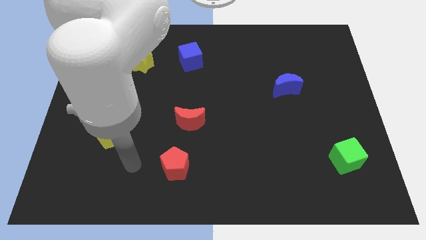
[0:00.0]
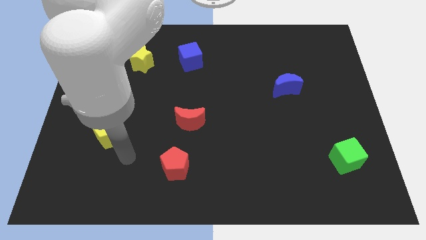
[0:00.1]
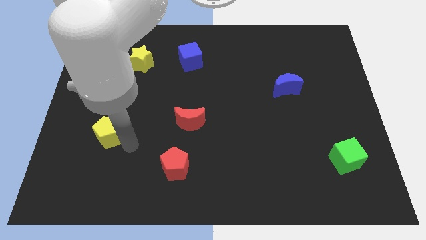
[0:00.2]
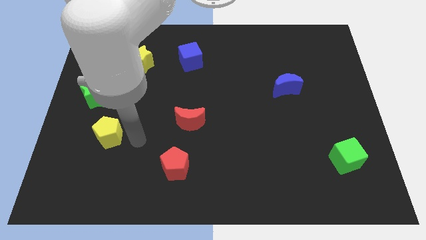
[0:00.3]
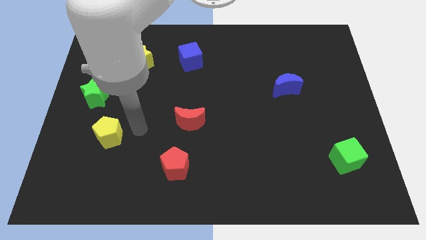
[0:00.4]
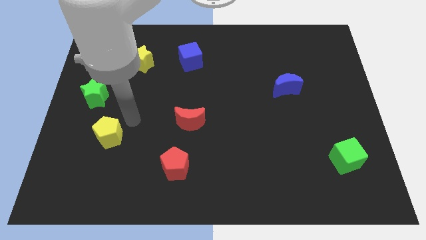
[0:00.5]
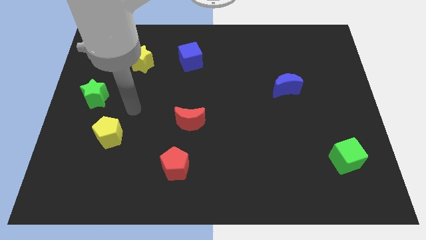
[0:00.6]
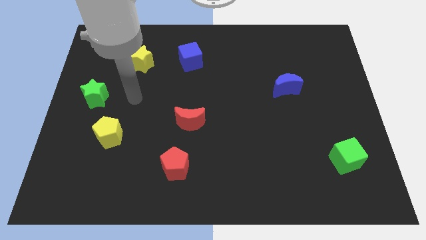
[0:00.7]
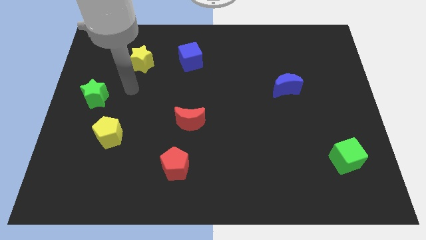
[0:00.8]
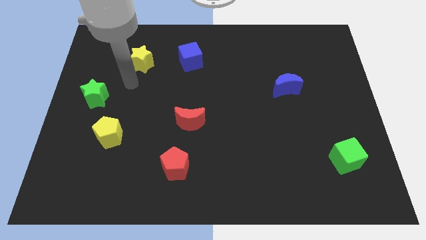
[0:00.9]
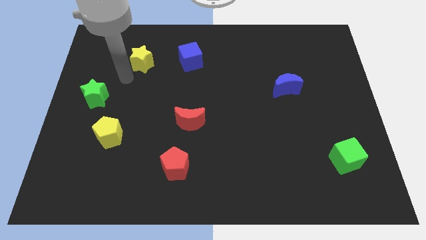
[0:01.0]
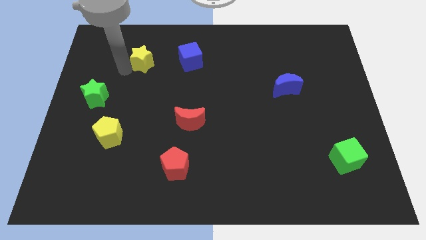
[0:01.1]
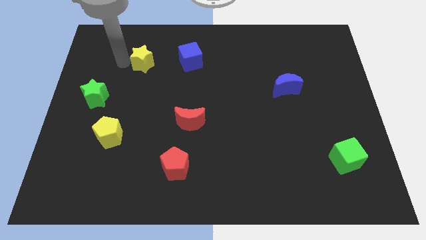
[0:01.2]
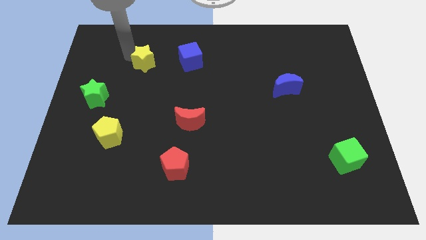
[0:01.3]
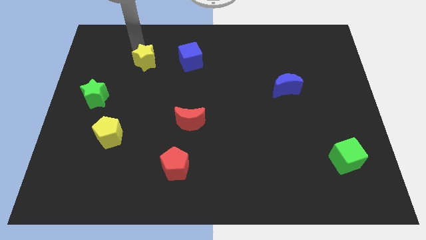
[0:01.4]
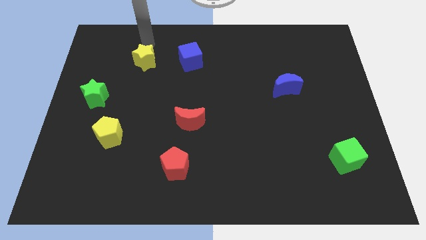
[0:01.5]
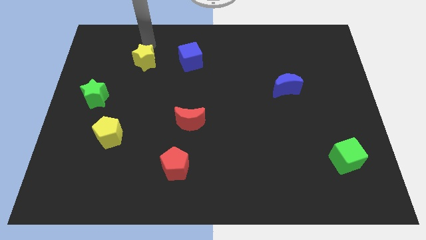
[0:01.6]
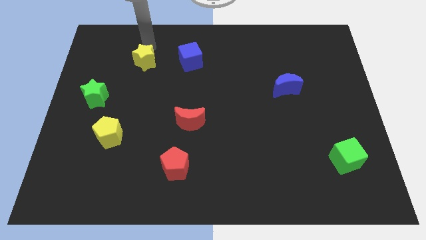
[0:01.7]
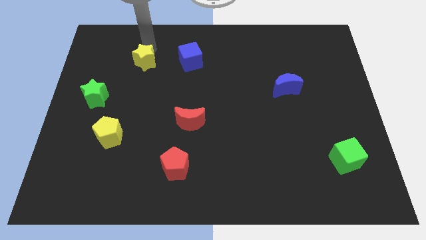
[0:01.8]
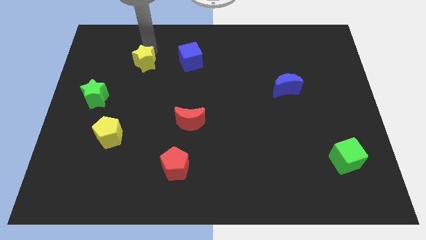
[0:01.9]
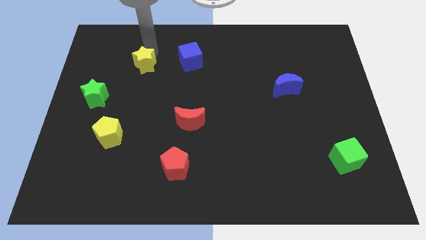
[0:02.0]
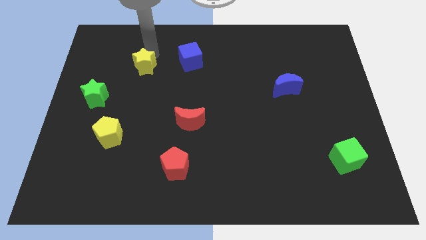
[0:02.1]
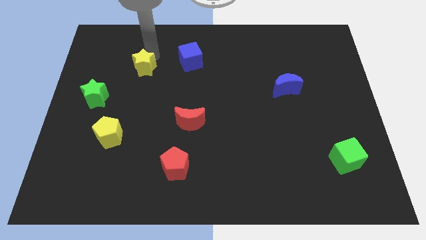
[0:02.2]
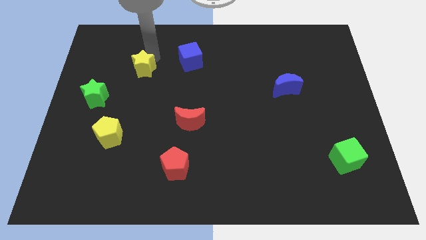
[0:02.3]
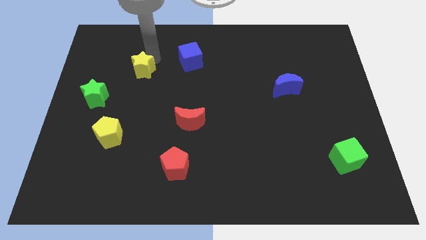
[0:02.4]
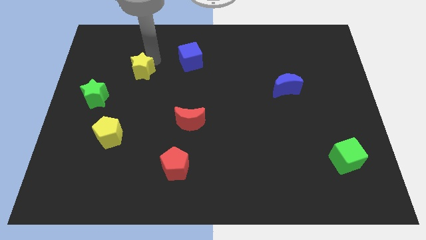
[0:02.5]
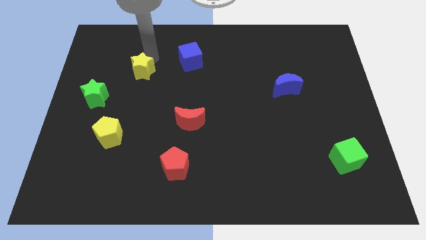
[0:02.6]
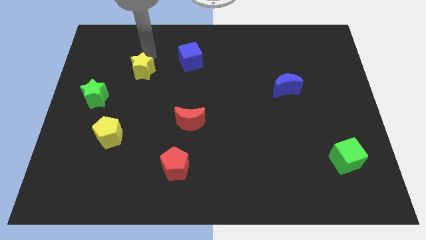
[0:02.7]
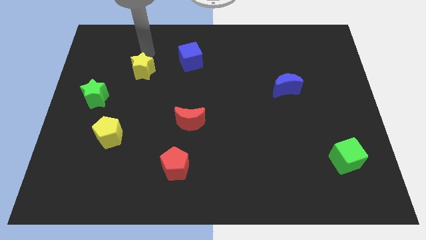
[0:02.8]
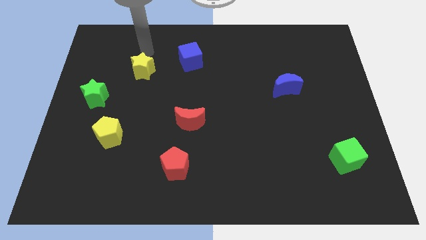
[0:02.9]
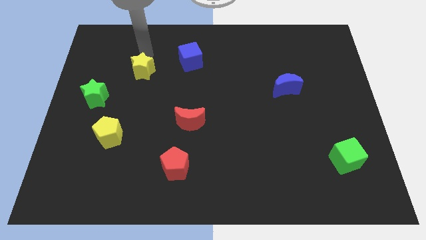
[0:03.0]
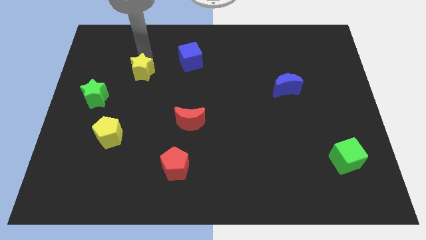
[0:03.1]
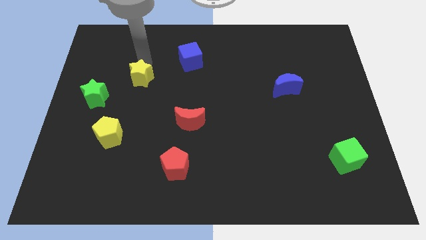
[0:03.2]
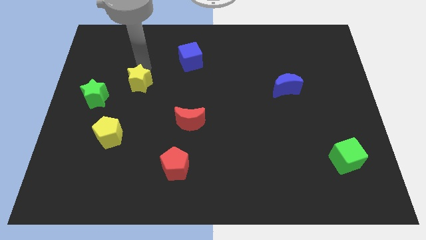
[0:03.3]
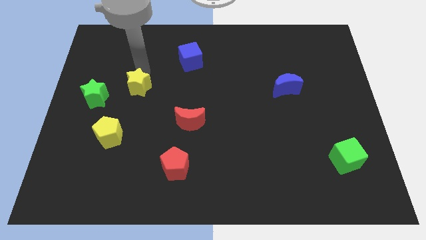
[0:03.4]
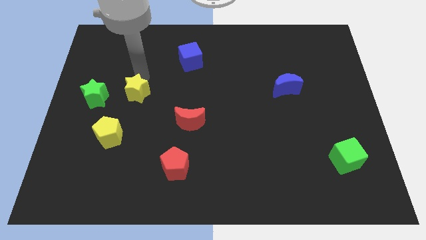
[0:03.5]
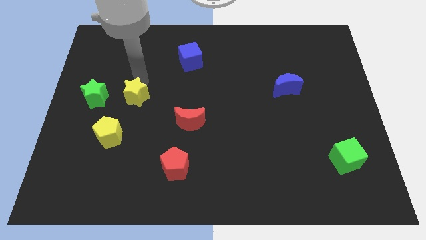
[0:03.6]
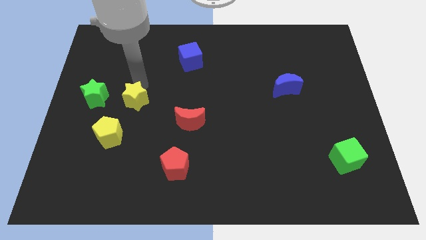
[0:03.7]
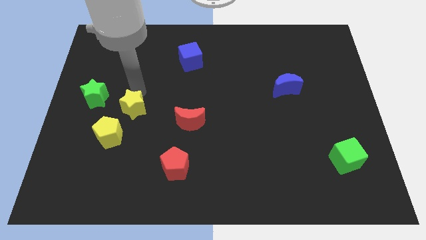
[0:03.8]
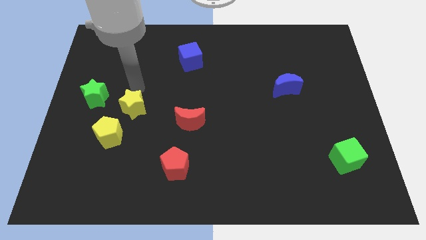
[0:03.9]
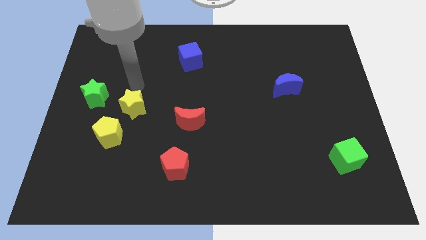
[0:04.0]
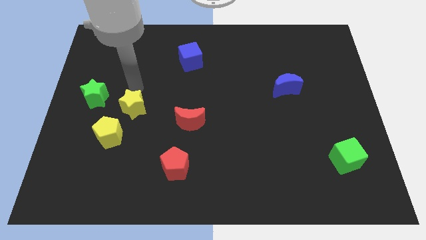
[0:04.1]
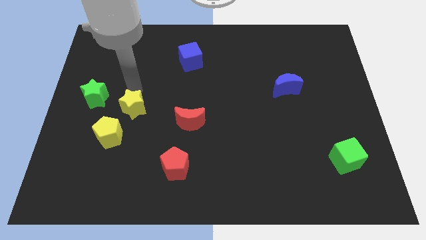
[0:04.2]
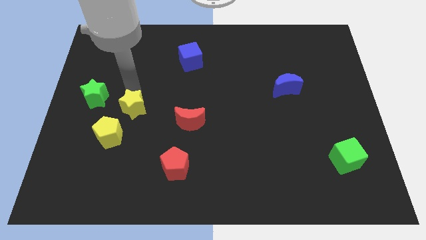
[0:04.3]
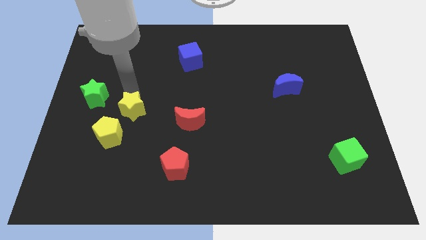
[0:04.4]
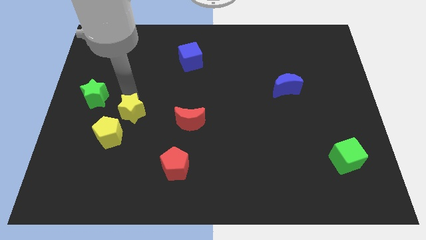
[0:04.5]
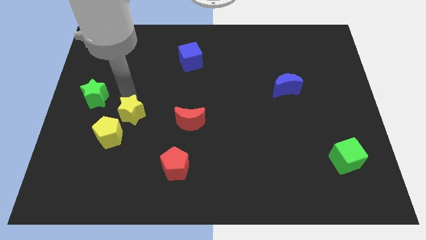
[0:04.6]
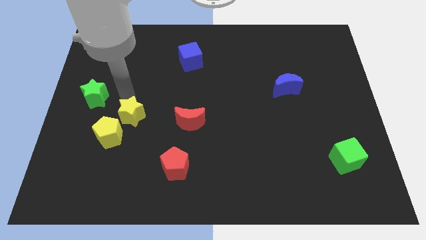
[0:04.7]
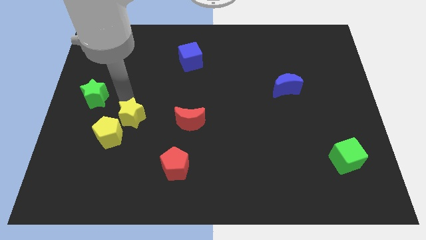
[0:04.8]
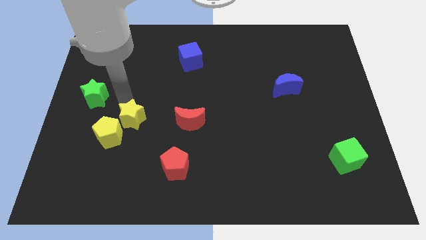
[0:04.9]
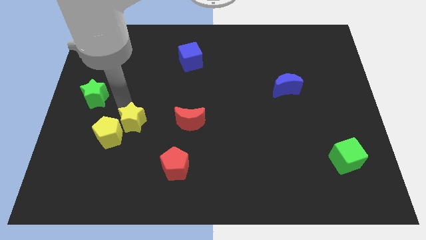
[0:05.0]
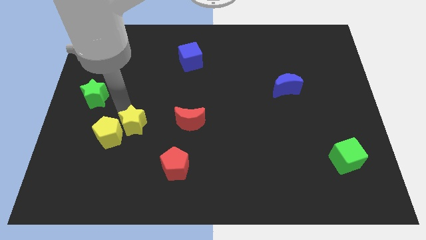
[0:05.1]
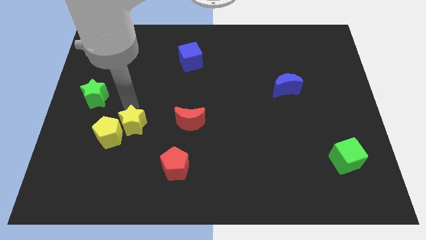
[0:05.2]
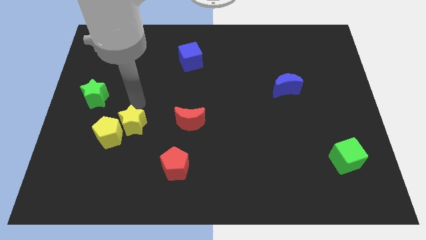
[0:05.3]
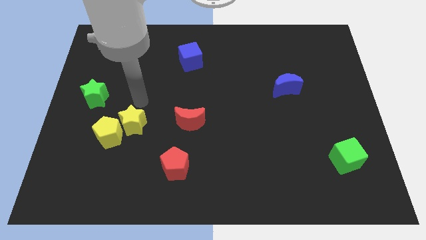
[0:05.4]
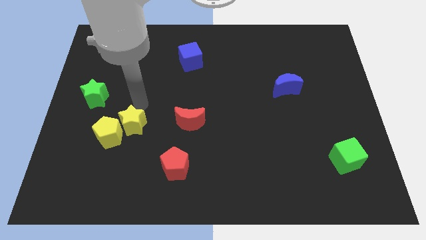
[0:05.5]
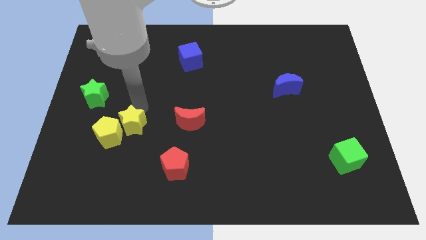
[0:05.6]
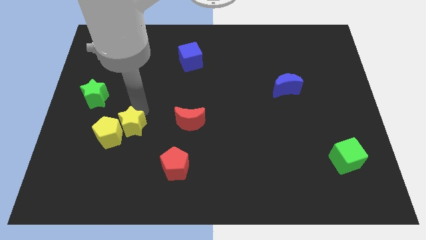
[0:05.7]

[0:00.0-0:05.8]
move the yellow star downwards

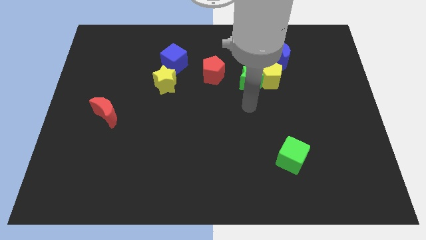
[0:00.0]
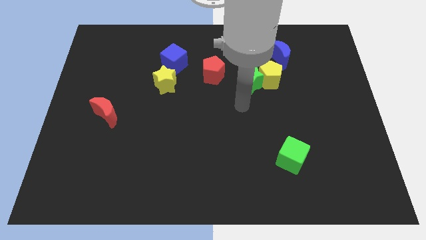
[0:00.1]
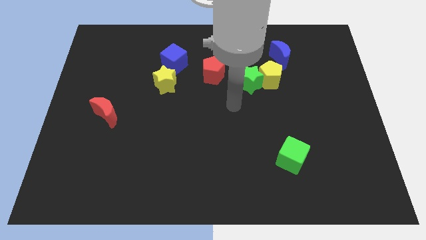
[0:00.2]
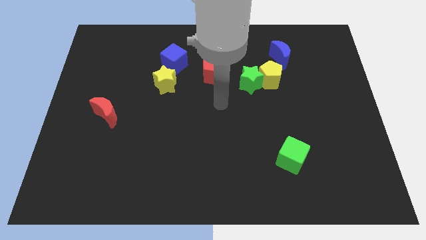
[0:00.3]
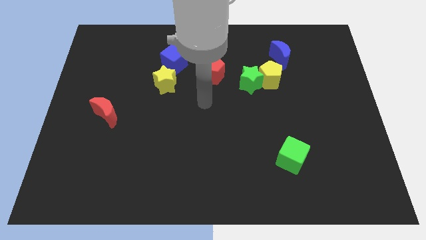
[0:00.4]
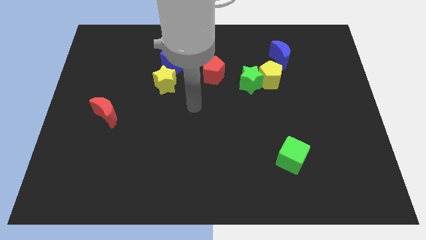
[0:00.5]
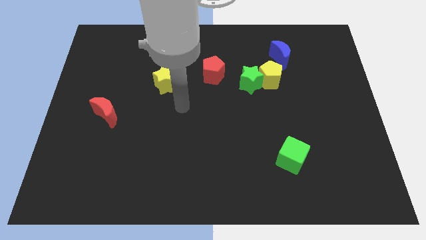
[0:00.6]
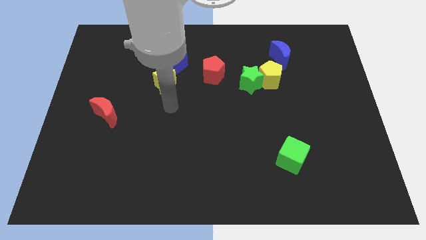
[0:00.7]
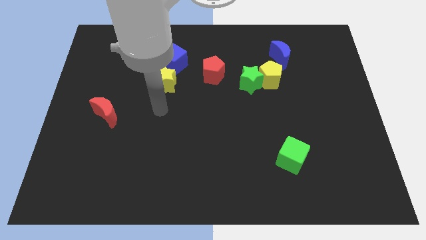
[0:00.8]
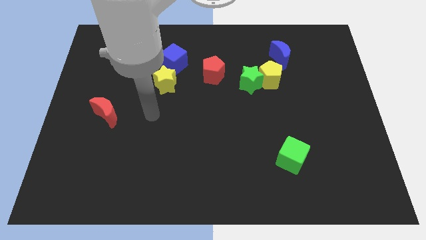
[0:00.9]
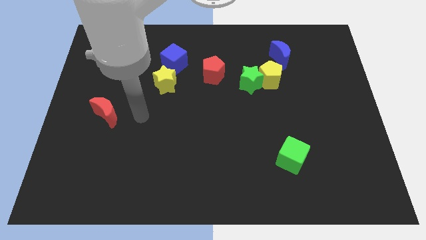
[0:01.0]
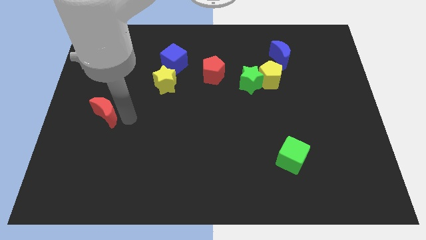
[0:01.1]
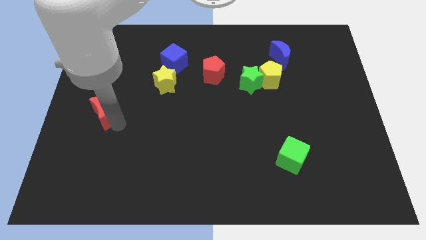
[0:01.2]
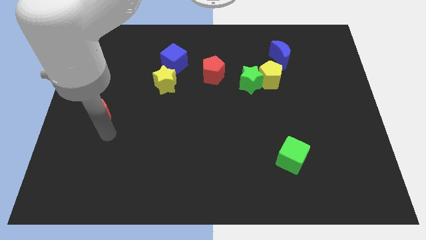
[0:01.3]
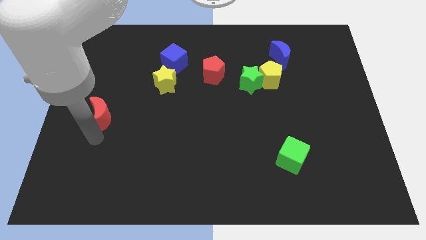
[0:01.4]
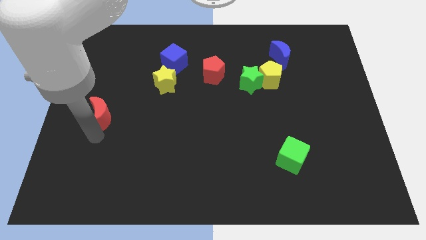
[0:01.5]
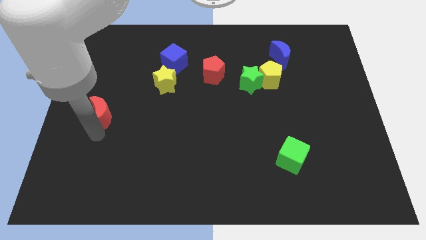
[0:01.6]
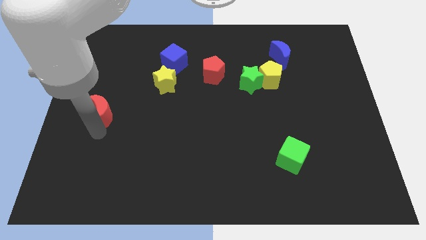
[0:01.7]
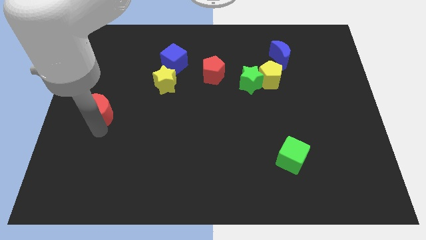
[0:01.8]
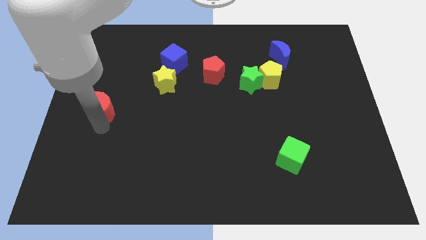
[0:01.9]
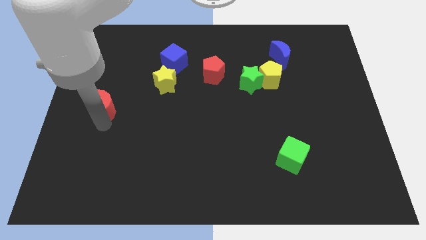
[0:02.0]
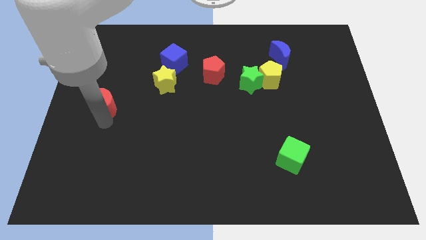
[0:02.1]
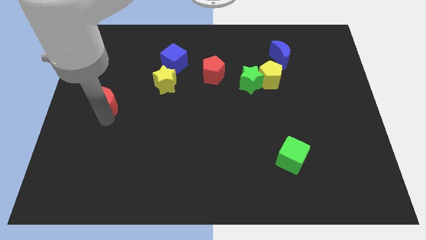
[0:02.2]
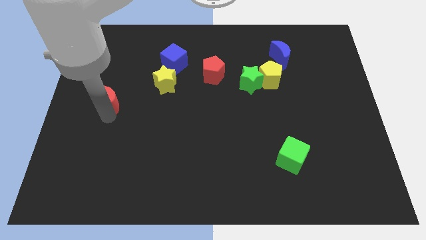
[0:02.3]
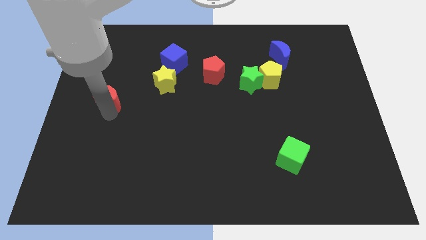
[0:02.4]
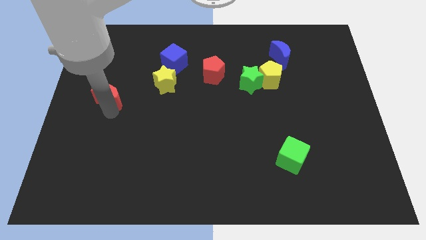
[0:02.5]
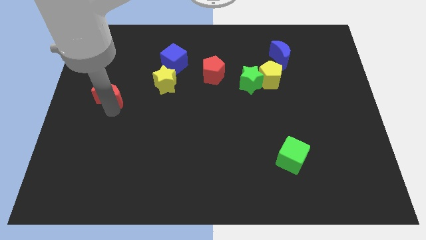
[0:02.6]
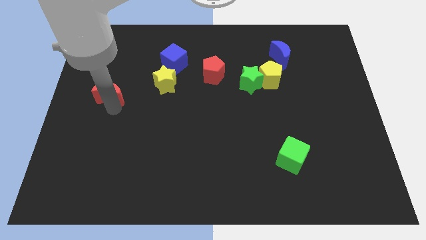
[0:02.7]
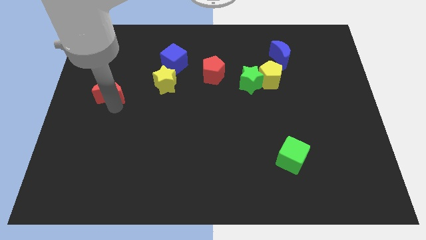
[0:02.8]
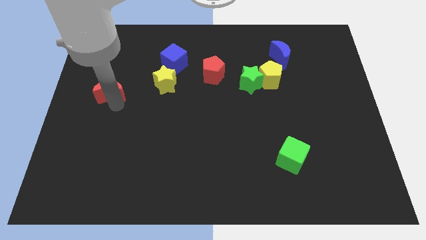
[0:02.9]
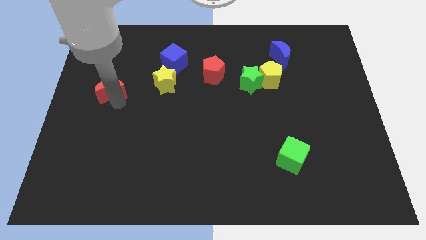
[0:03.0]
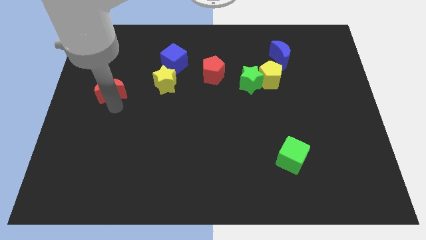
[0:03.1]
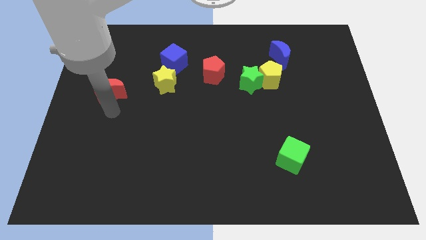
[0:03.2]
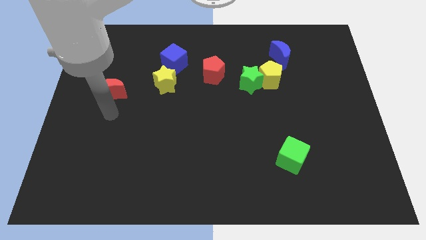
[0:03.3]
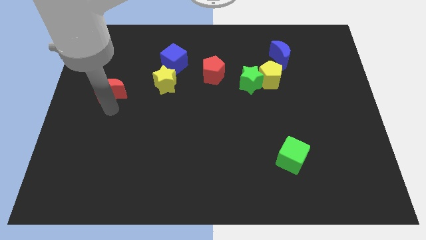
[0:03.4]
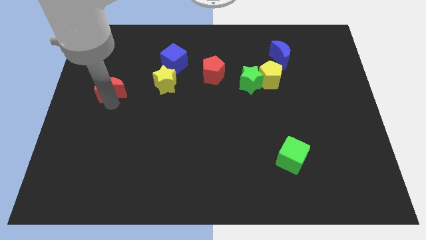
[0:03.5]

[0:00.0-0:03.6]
move the red moon a little bit up
